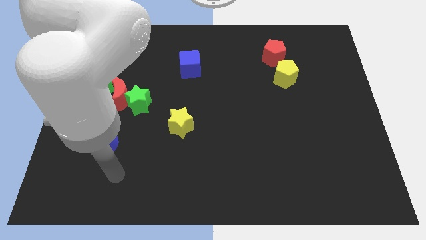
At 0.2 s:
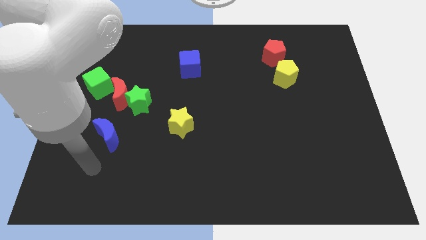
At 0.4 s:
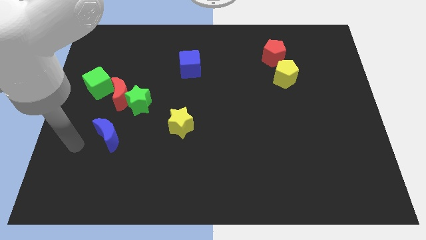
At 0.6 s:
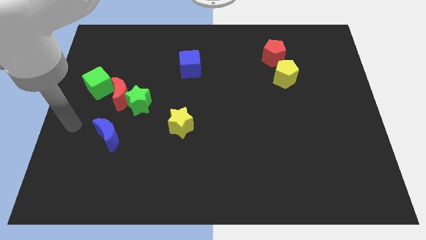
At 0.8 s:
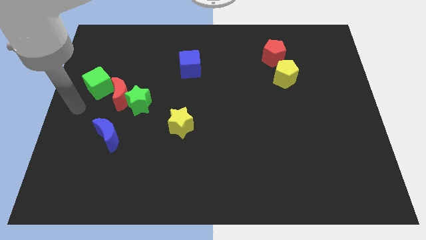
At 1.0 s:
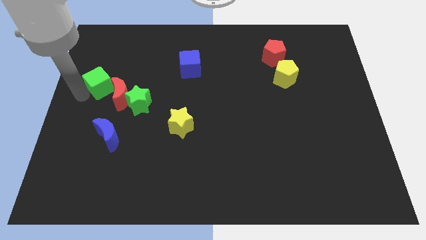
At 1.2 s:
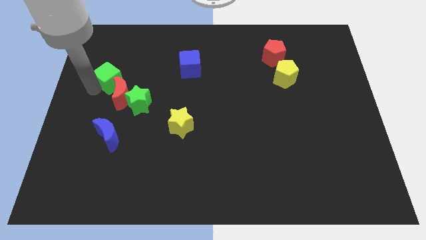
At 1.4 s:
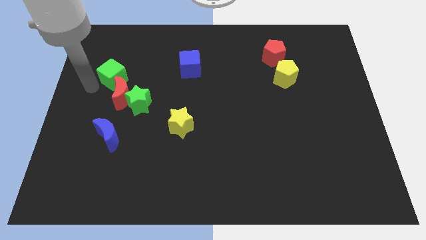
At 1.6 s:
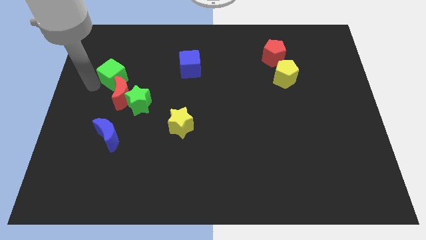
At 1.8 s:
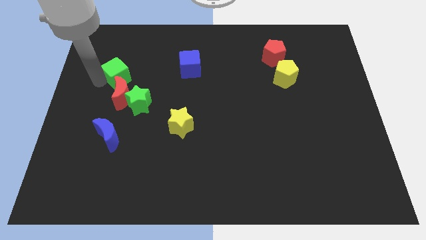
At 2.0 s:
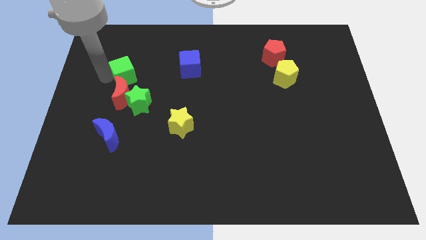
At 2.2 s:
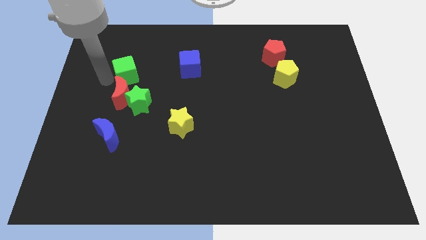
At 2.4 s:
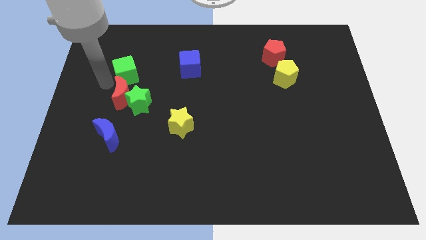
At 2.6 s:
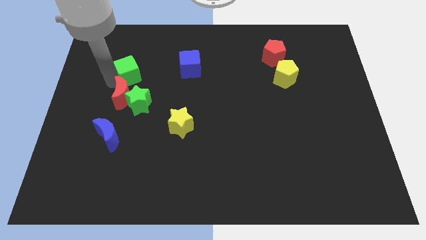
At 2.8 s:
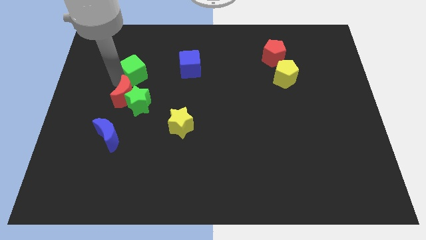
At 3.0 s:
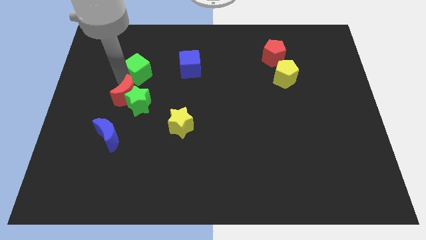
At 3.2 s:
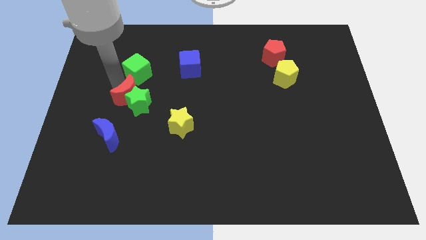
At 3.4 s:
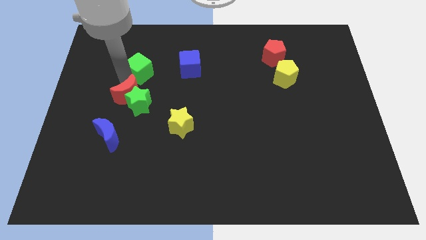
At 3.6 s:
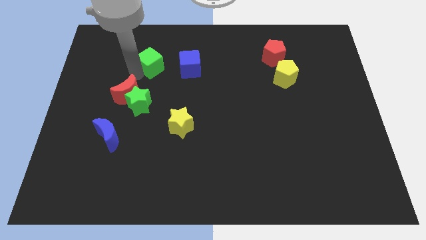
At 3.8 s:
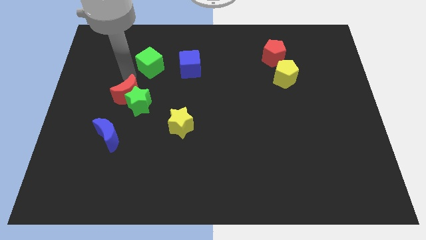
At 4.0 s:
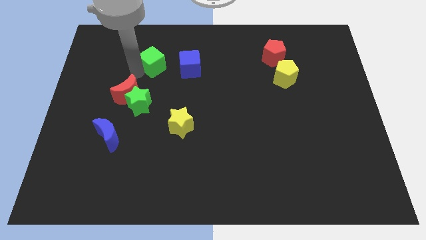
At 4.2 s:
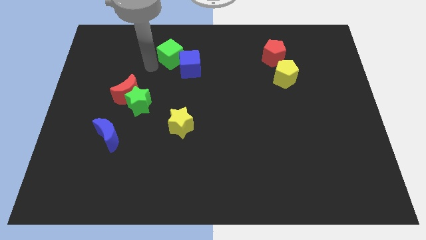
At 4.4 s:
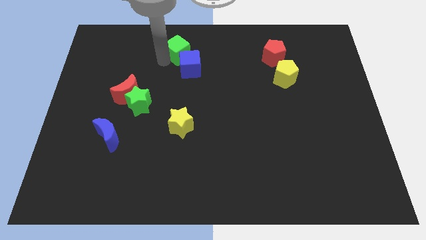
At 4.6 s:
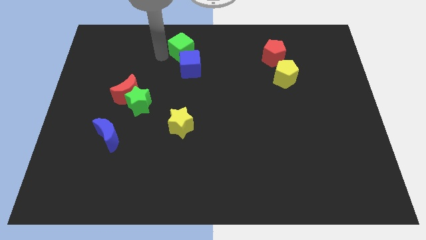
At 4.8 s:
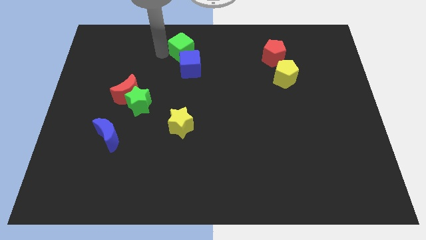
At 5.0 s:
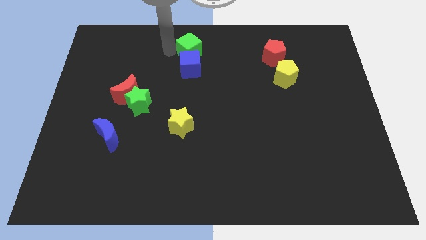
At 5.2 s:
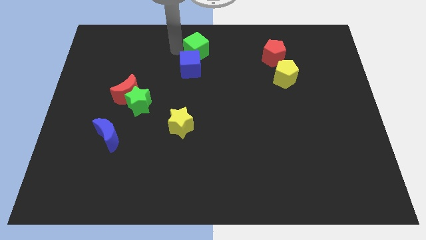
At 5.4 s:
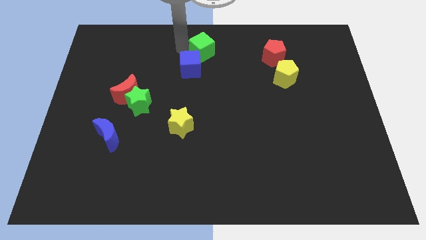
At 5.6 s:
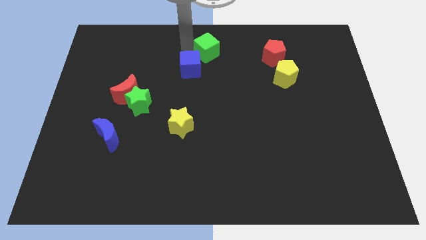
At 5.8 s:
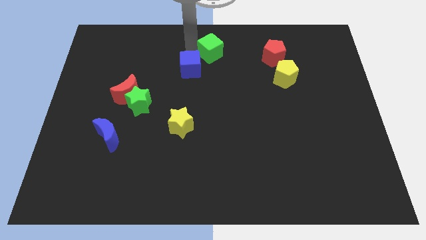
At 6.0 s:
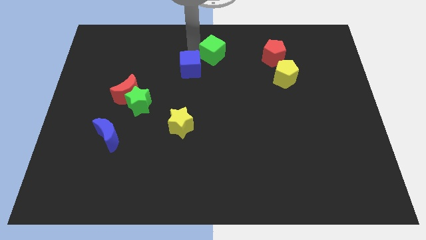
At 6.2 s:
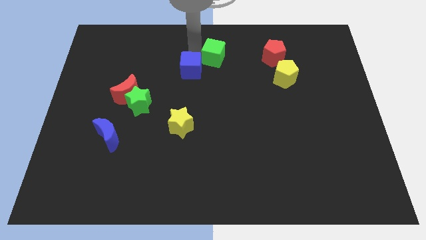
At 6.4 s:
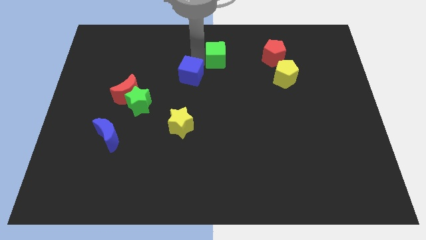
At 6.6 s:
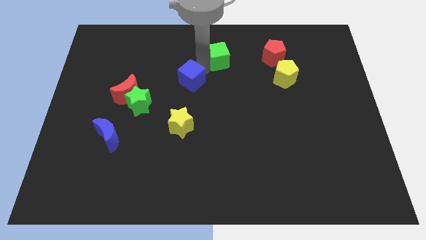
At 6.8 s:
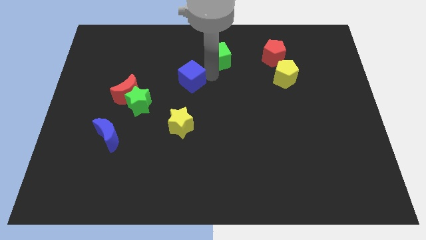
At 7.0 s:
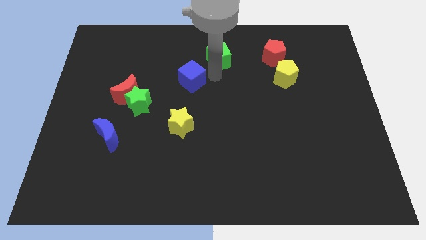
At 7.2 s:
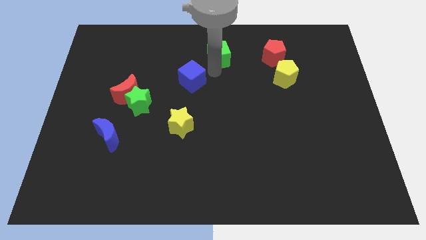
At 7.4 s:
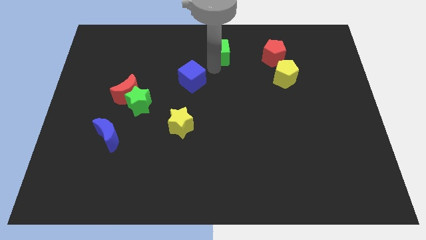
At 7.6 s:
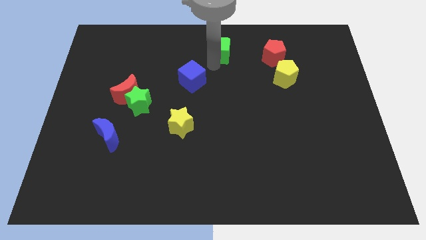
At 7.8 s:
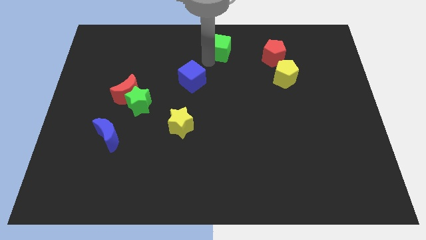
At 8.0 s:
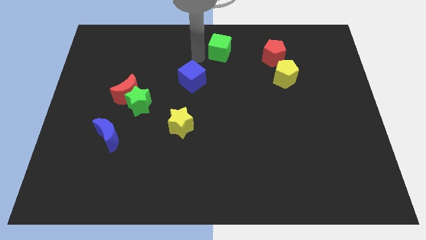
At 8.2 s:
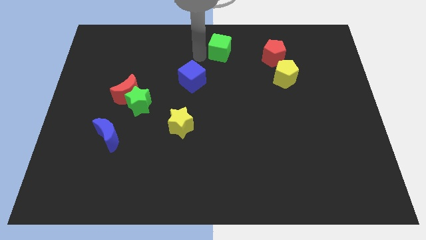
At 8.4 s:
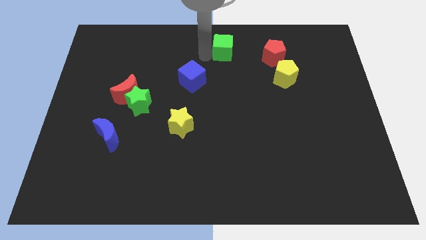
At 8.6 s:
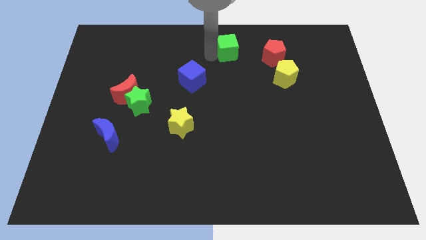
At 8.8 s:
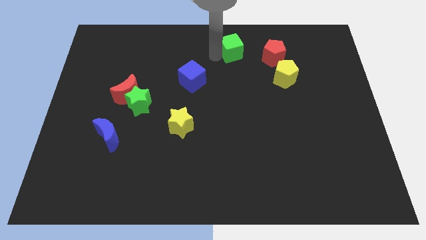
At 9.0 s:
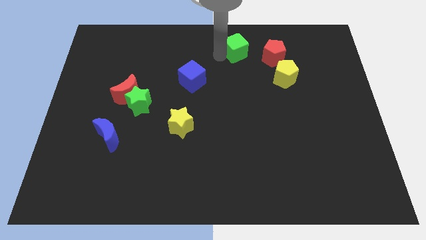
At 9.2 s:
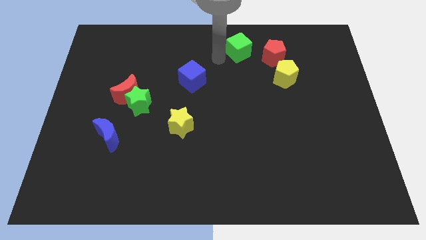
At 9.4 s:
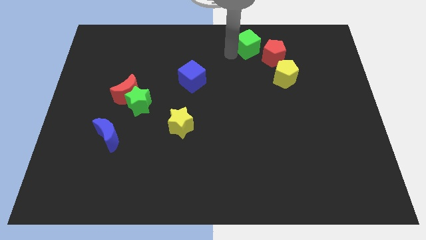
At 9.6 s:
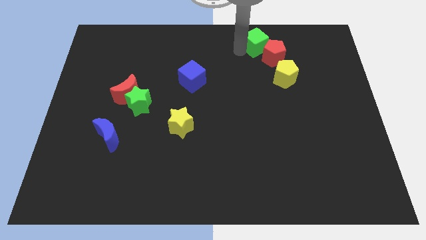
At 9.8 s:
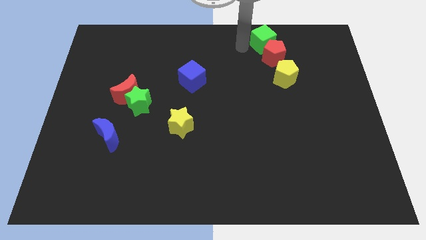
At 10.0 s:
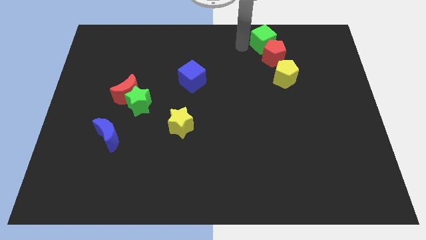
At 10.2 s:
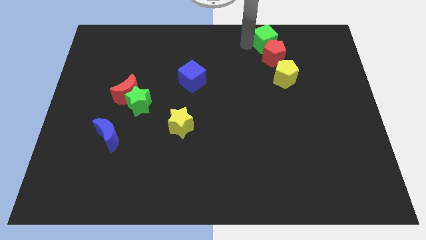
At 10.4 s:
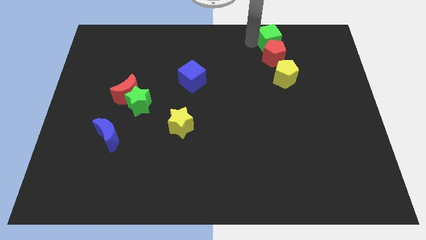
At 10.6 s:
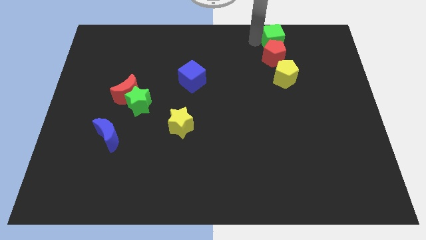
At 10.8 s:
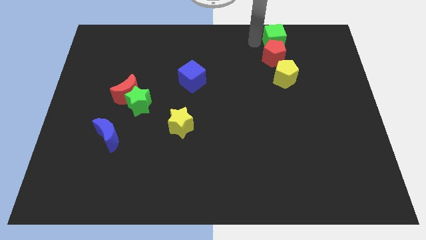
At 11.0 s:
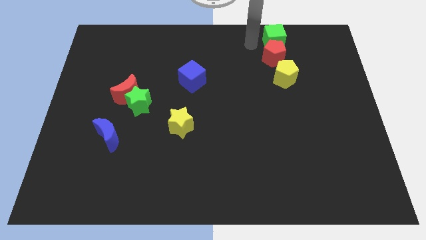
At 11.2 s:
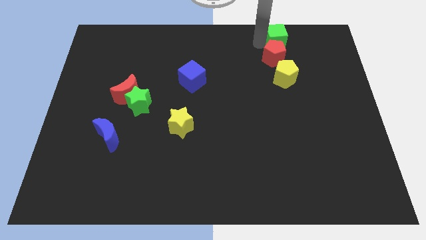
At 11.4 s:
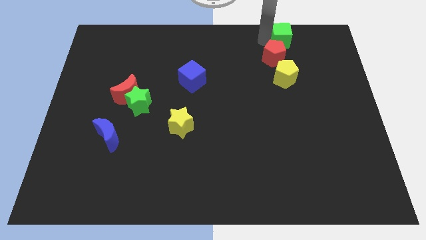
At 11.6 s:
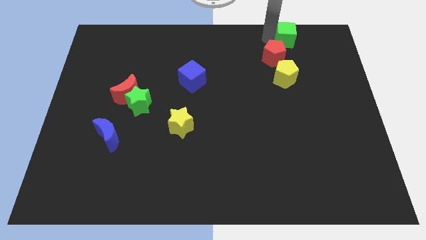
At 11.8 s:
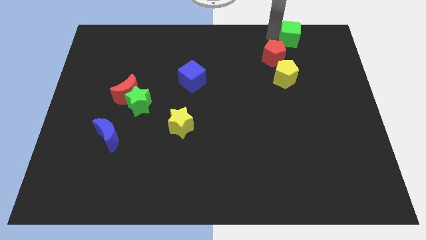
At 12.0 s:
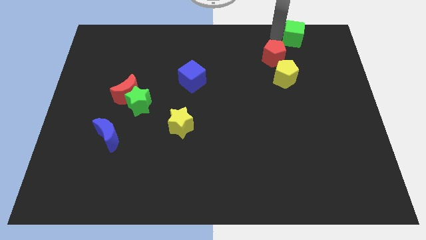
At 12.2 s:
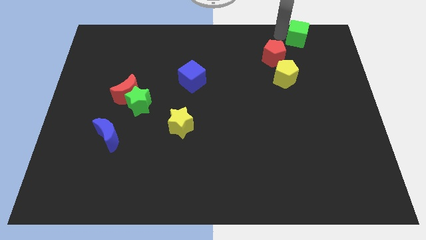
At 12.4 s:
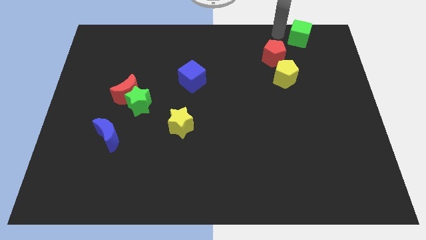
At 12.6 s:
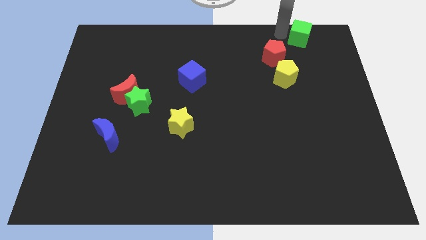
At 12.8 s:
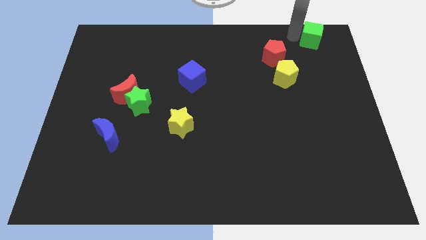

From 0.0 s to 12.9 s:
move the green cube to the top right corner

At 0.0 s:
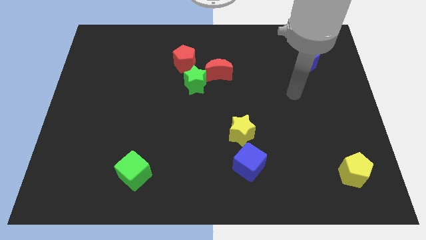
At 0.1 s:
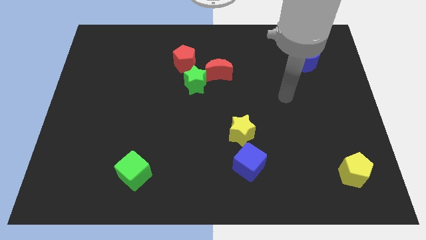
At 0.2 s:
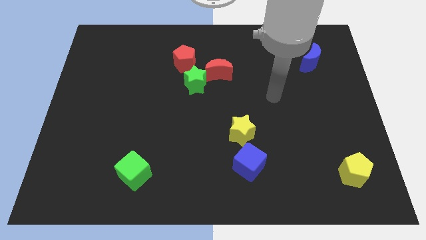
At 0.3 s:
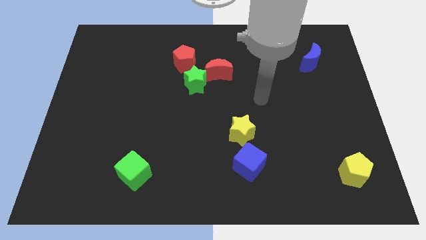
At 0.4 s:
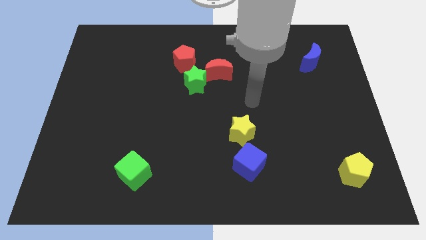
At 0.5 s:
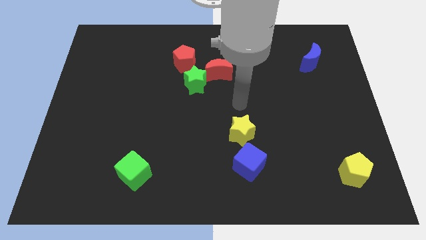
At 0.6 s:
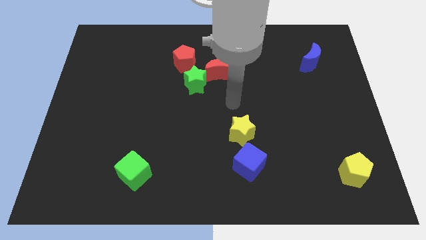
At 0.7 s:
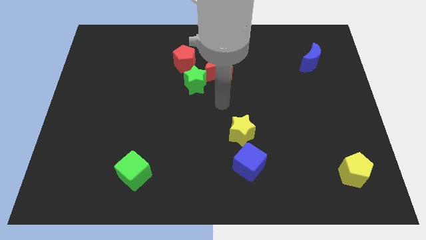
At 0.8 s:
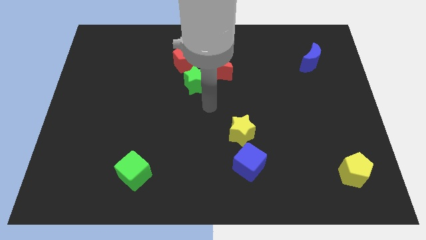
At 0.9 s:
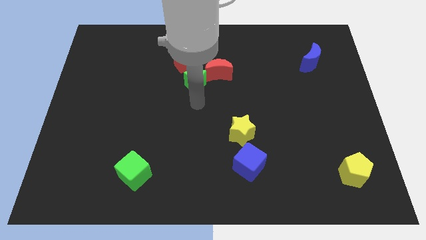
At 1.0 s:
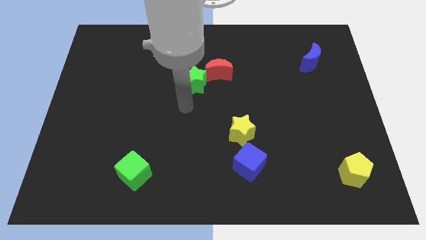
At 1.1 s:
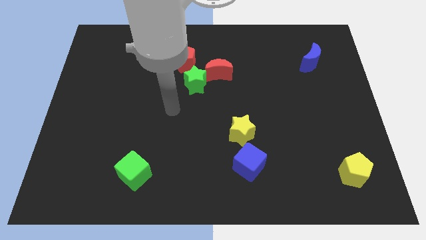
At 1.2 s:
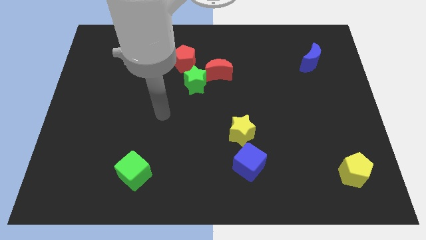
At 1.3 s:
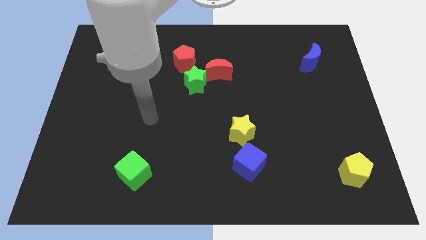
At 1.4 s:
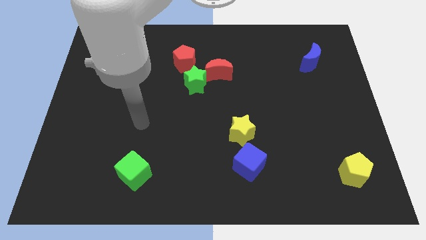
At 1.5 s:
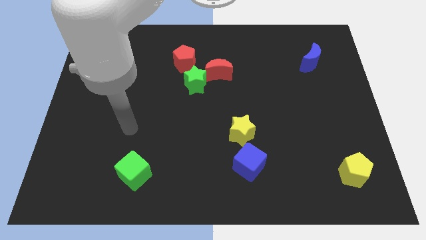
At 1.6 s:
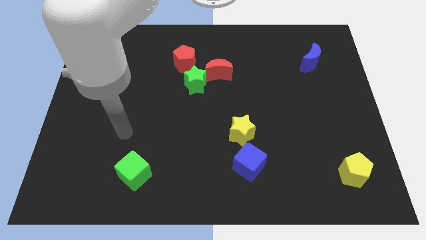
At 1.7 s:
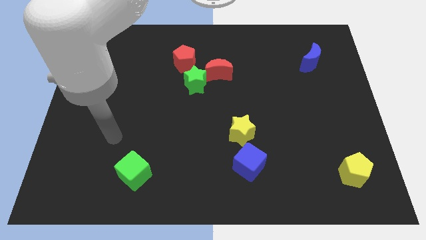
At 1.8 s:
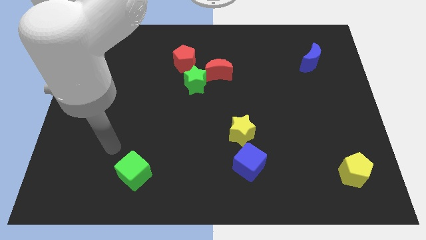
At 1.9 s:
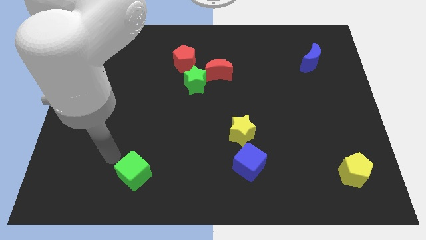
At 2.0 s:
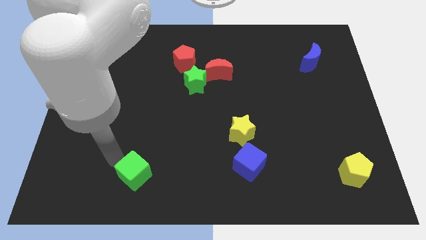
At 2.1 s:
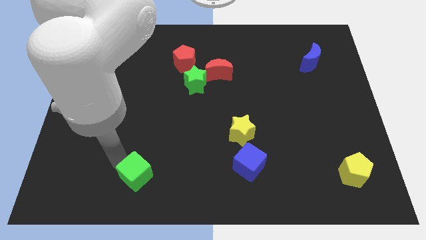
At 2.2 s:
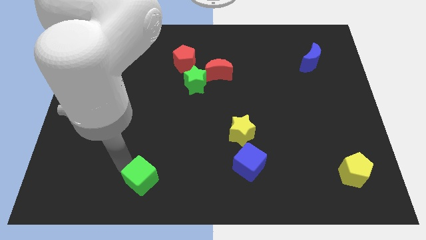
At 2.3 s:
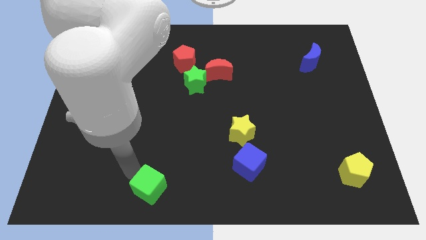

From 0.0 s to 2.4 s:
move the green cube to the bottom
